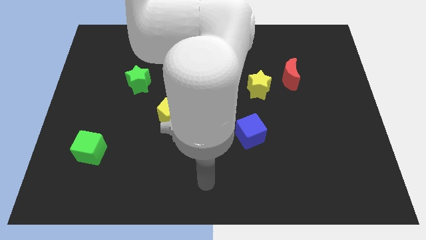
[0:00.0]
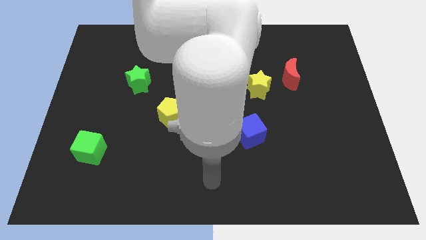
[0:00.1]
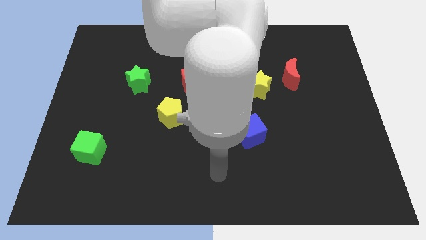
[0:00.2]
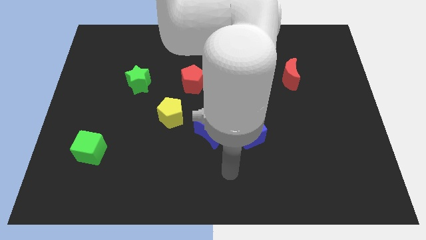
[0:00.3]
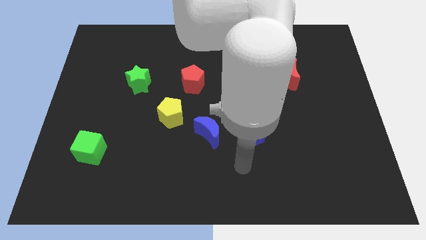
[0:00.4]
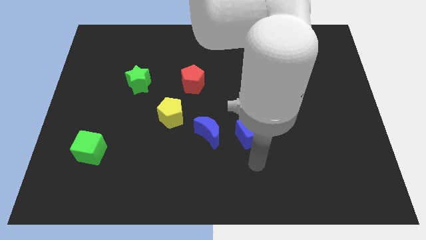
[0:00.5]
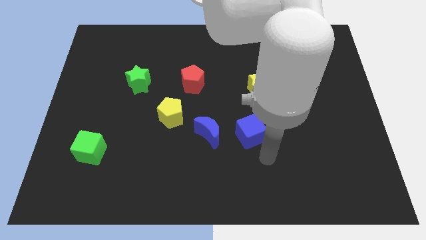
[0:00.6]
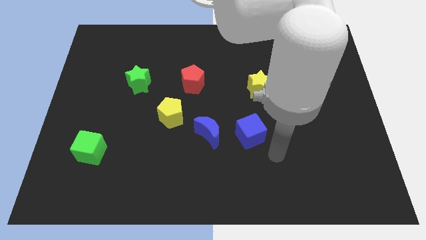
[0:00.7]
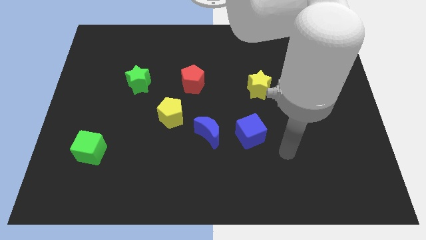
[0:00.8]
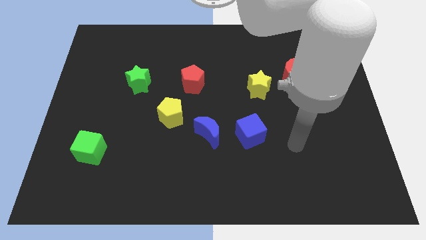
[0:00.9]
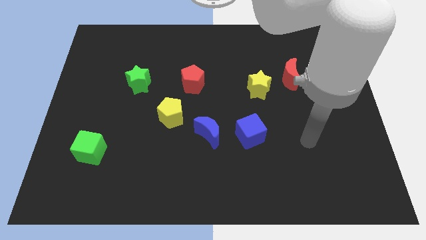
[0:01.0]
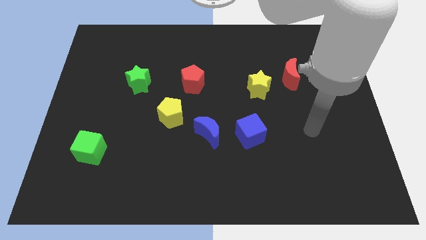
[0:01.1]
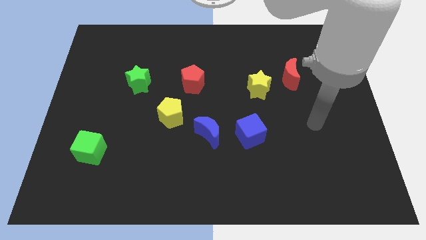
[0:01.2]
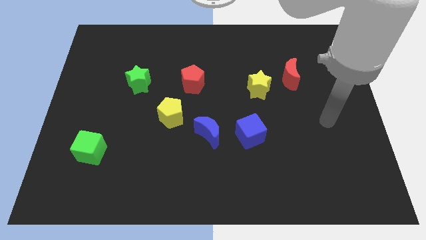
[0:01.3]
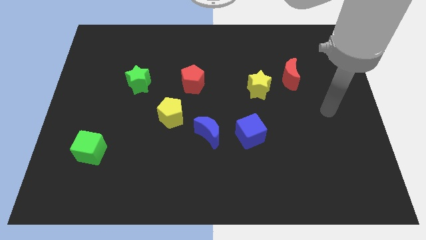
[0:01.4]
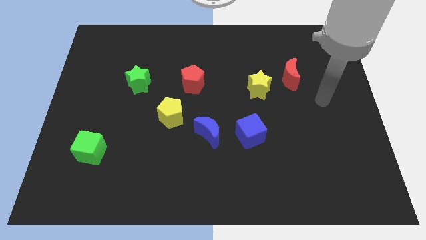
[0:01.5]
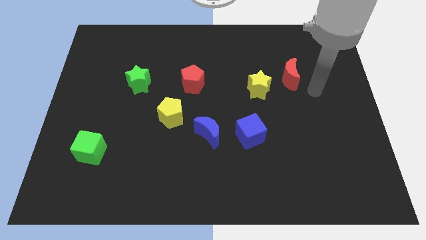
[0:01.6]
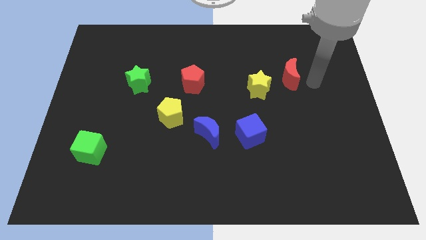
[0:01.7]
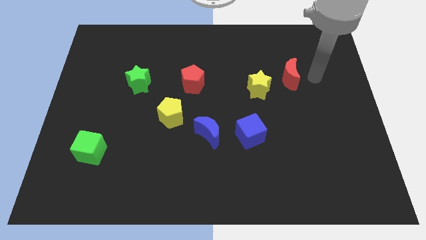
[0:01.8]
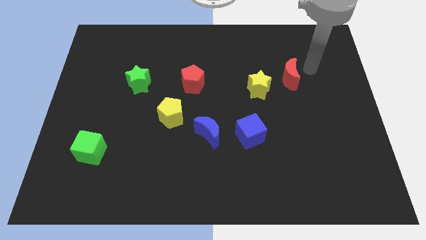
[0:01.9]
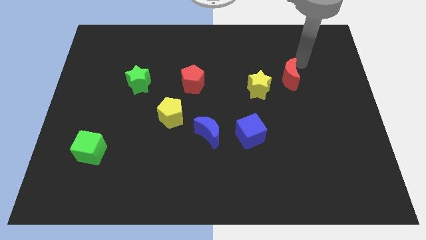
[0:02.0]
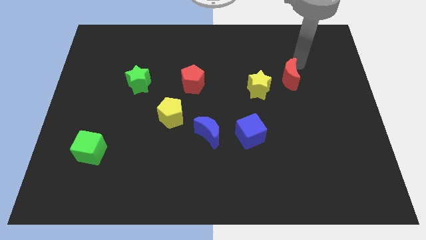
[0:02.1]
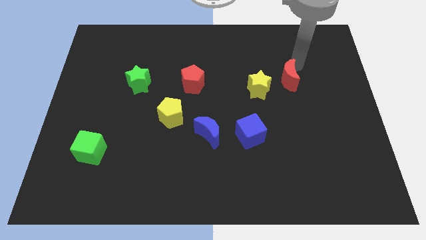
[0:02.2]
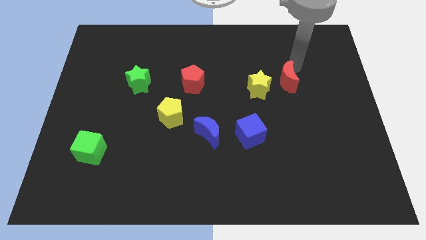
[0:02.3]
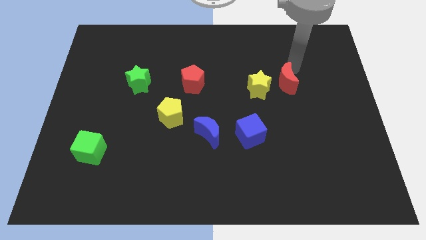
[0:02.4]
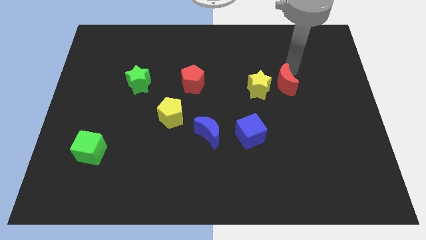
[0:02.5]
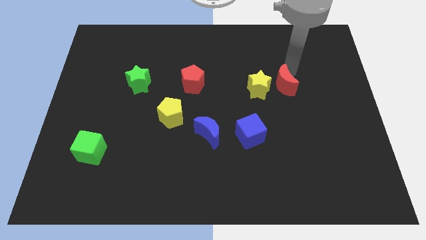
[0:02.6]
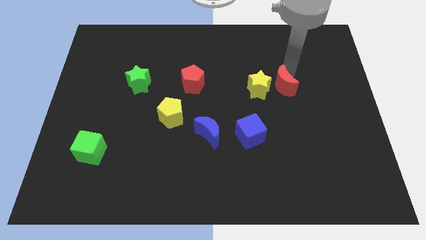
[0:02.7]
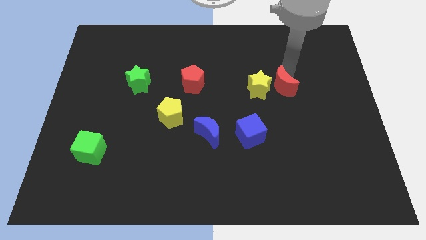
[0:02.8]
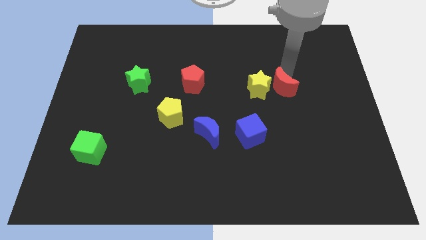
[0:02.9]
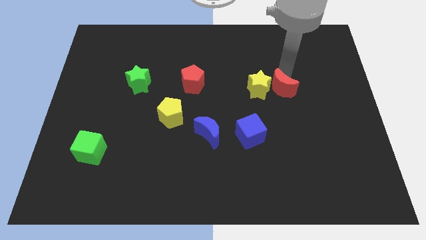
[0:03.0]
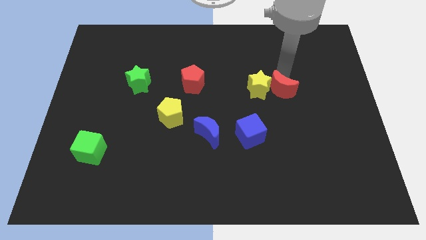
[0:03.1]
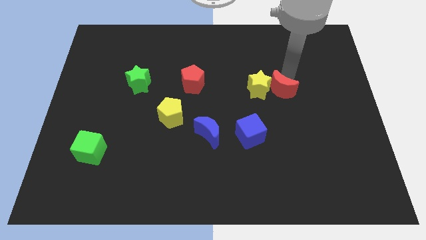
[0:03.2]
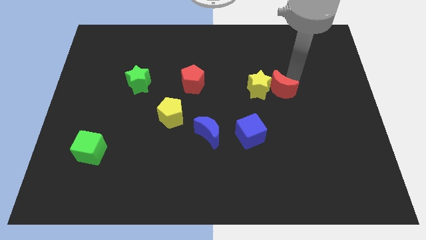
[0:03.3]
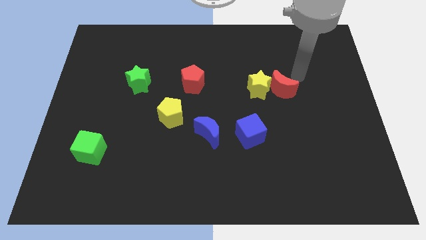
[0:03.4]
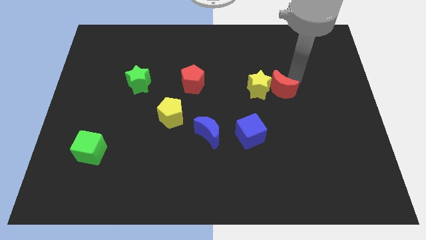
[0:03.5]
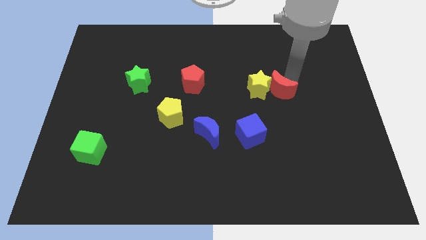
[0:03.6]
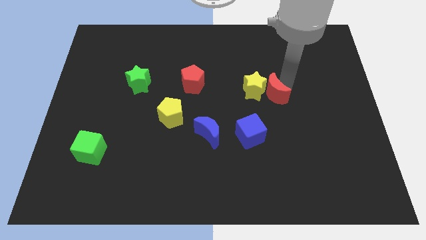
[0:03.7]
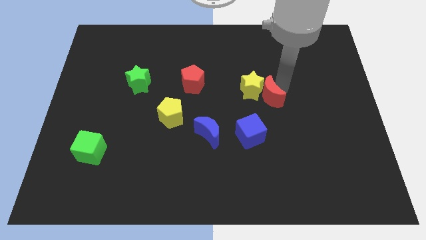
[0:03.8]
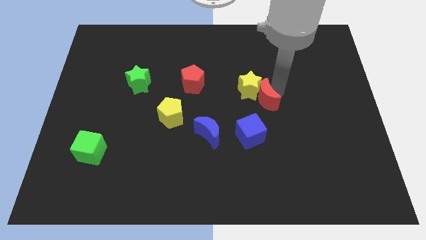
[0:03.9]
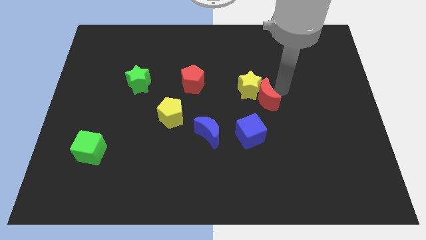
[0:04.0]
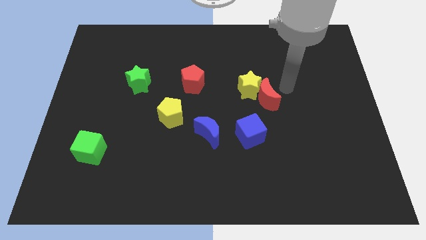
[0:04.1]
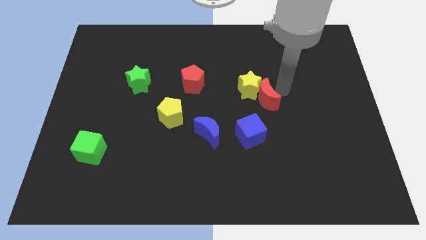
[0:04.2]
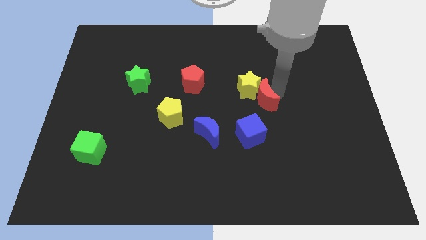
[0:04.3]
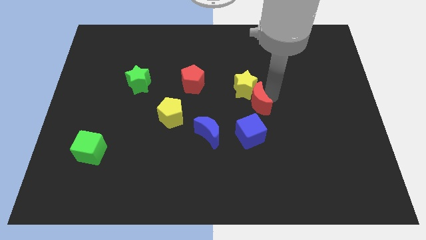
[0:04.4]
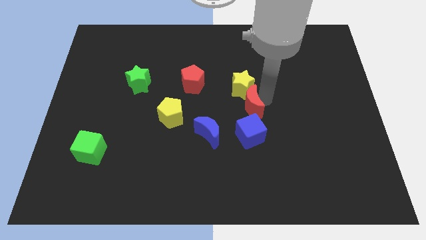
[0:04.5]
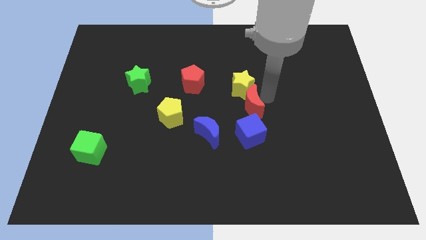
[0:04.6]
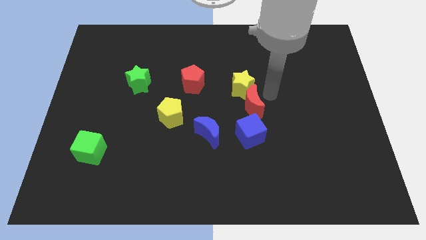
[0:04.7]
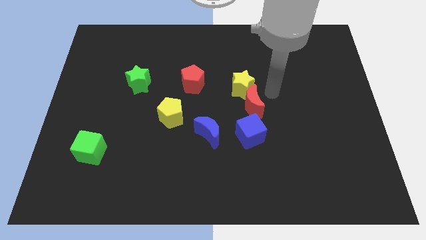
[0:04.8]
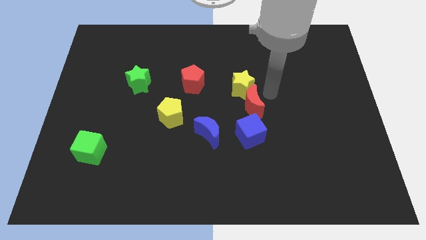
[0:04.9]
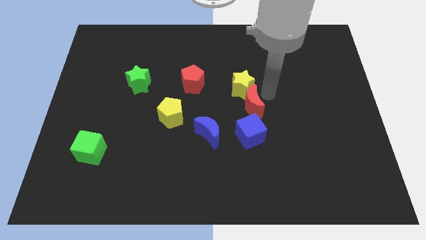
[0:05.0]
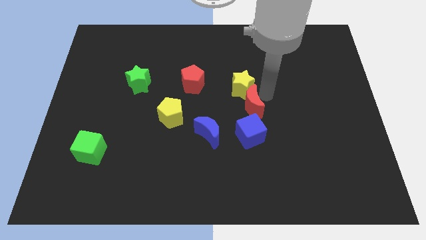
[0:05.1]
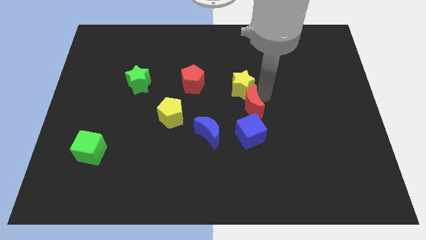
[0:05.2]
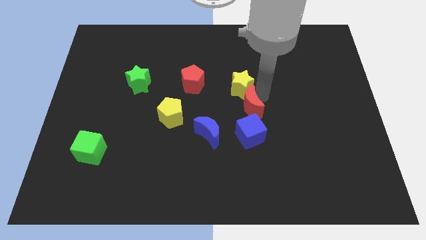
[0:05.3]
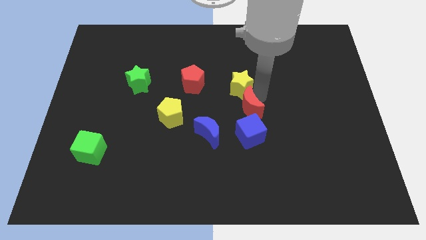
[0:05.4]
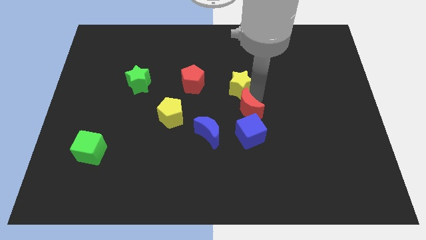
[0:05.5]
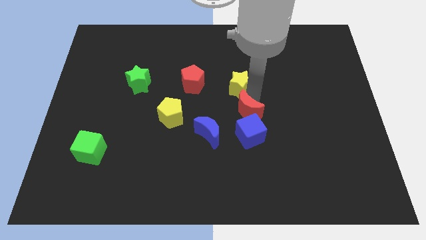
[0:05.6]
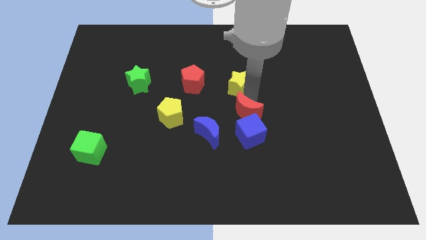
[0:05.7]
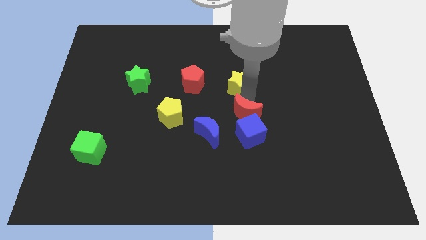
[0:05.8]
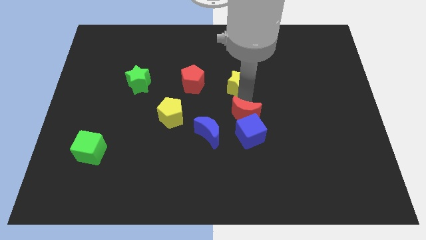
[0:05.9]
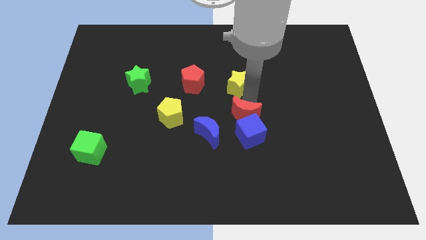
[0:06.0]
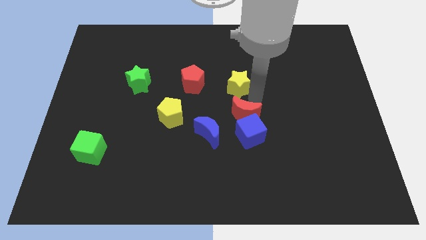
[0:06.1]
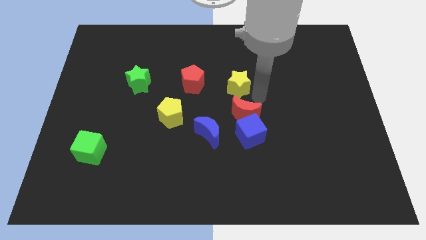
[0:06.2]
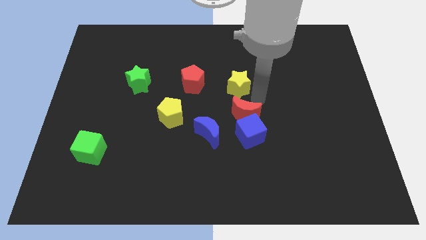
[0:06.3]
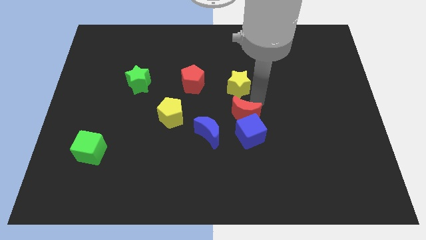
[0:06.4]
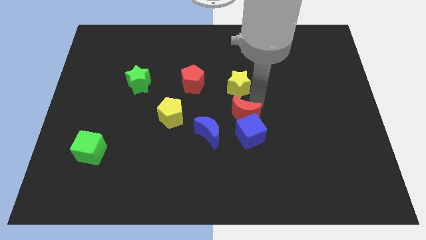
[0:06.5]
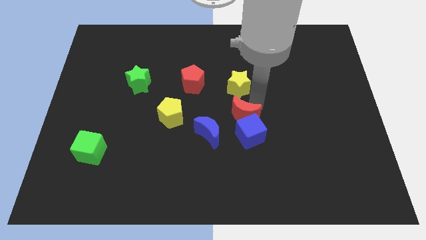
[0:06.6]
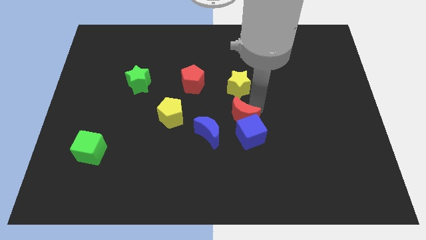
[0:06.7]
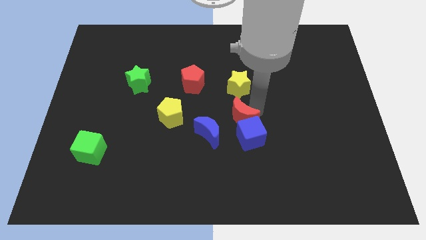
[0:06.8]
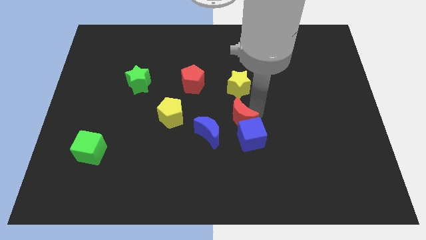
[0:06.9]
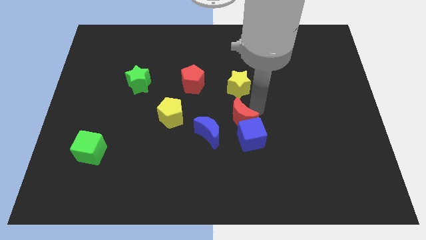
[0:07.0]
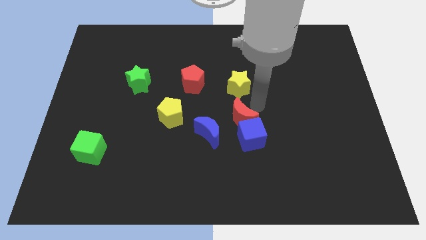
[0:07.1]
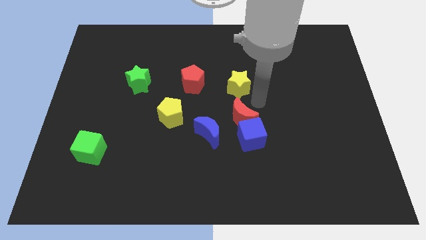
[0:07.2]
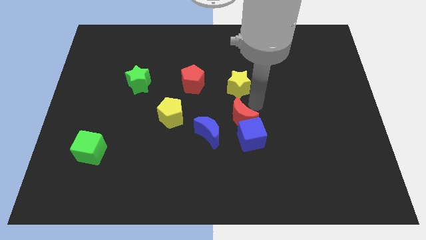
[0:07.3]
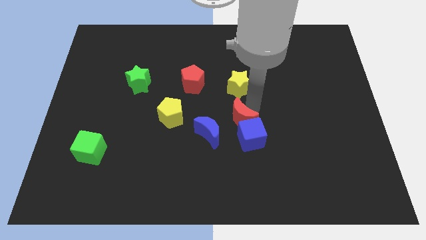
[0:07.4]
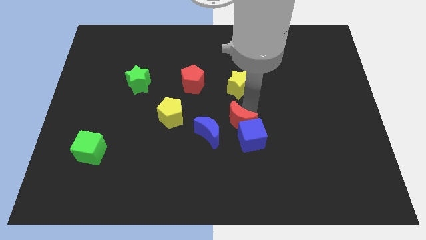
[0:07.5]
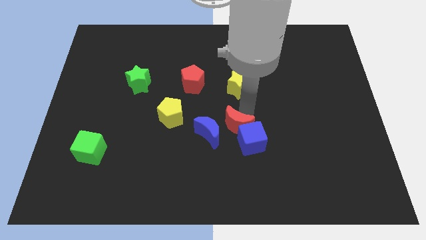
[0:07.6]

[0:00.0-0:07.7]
slide the red moon diagonally down and left

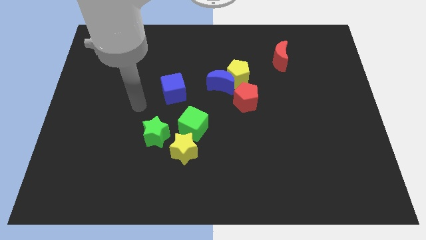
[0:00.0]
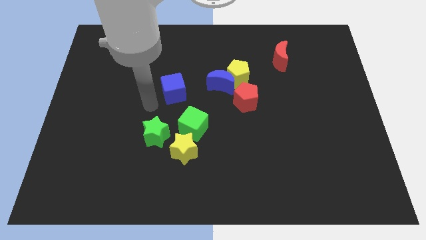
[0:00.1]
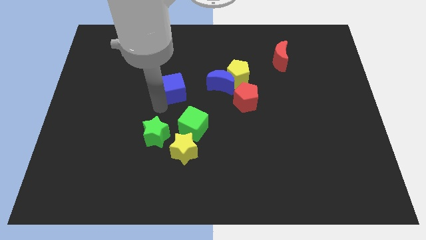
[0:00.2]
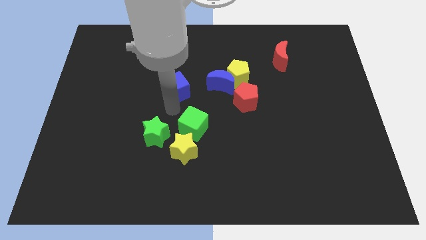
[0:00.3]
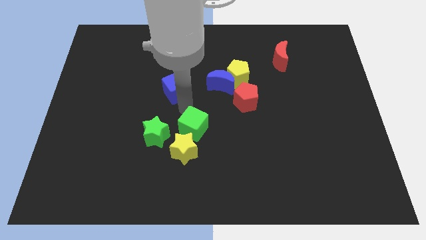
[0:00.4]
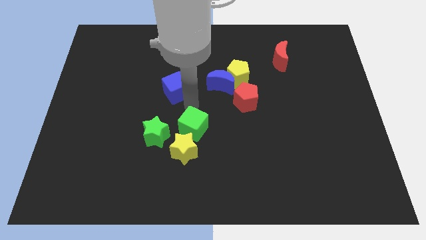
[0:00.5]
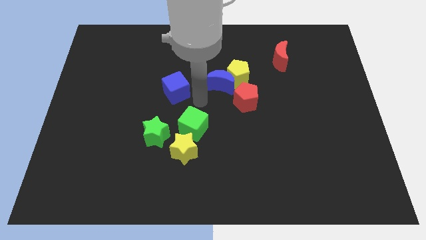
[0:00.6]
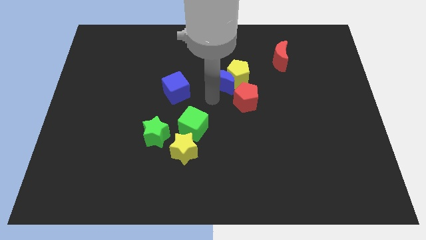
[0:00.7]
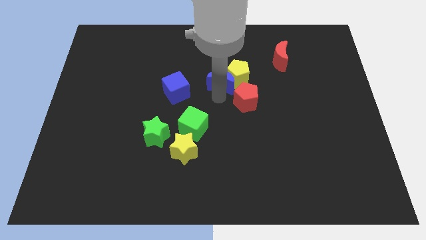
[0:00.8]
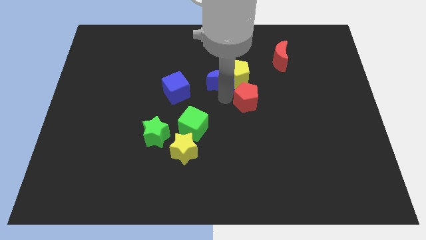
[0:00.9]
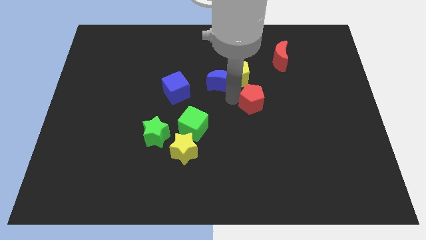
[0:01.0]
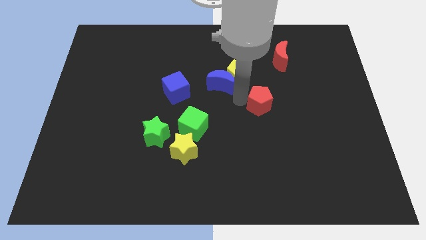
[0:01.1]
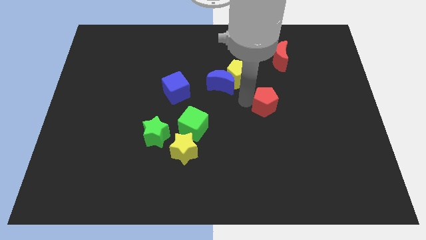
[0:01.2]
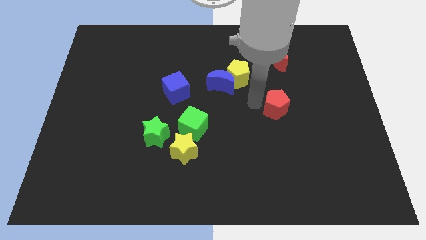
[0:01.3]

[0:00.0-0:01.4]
push the red pentagon somewhat right
